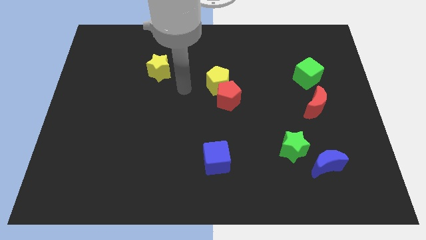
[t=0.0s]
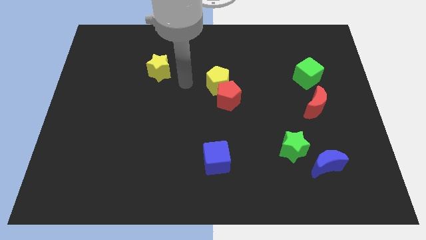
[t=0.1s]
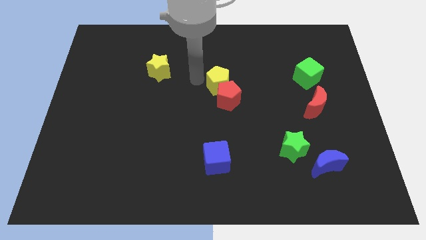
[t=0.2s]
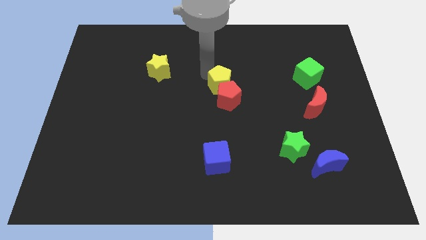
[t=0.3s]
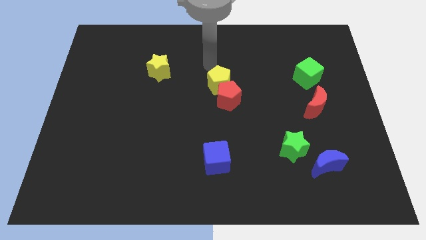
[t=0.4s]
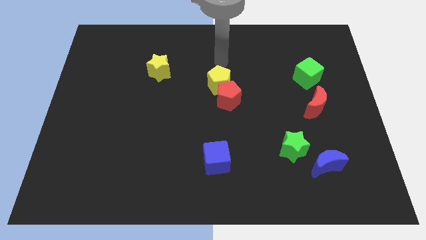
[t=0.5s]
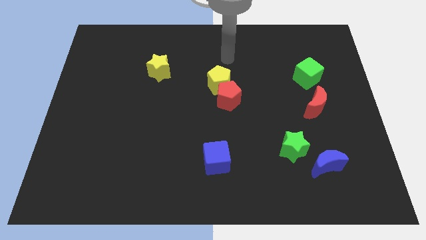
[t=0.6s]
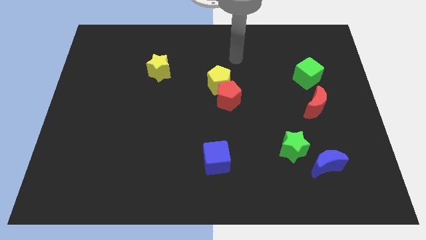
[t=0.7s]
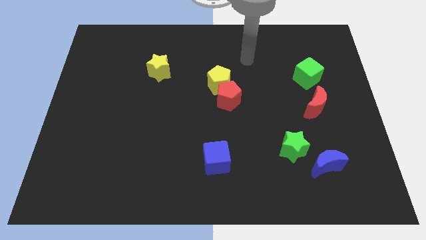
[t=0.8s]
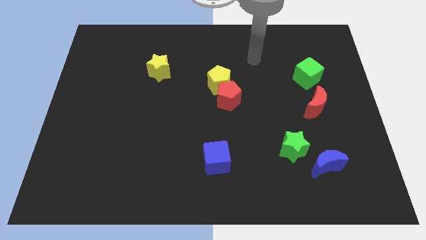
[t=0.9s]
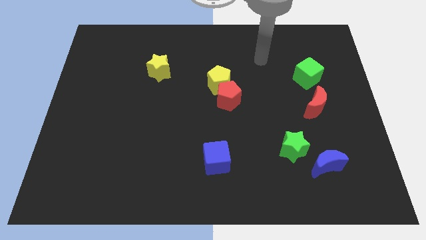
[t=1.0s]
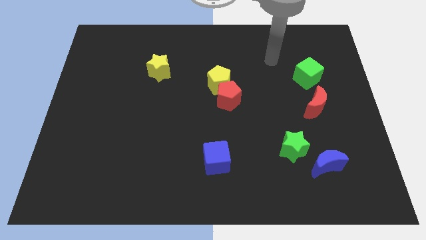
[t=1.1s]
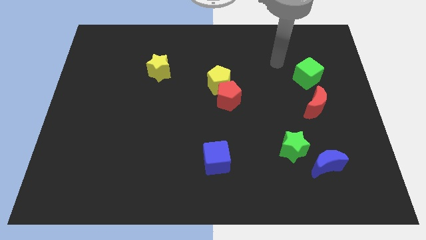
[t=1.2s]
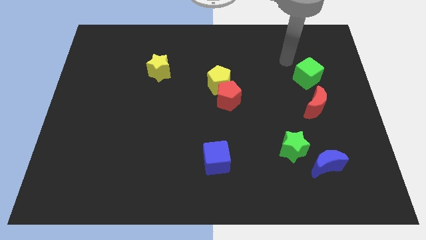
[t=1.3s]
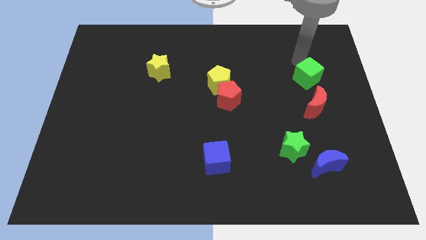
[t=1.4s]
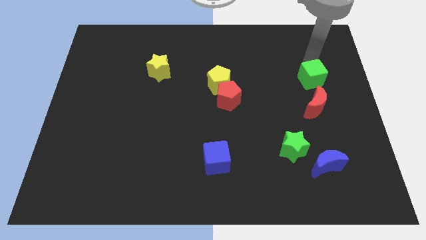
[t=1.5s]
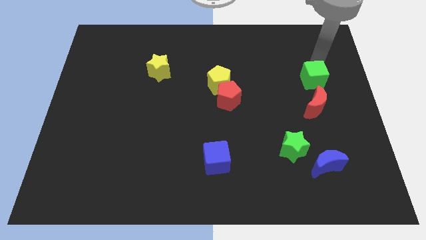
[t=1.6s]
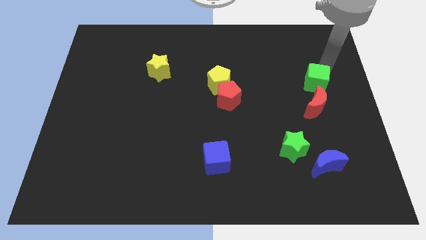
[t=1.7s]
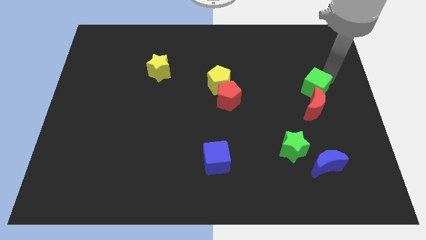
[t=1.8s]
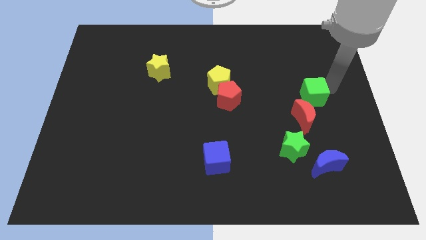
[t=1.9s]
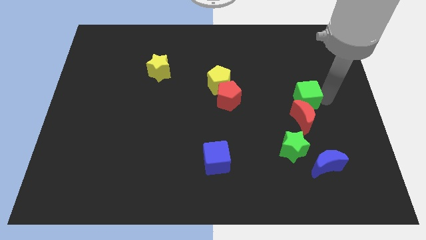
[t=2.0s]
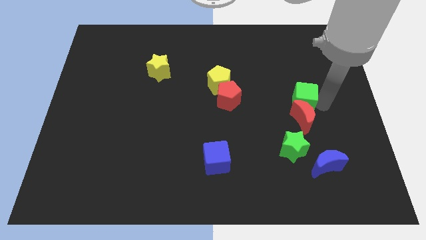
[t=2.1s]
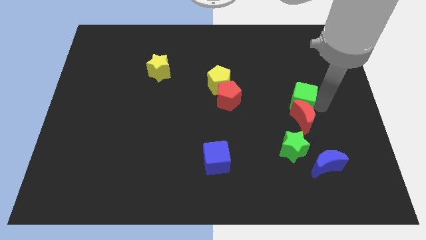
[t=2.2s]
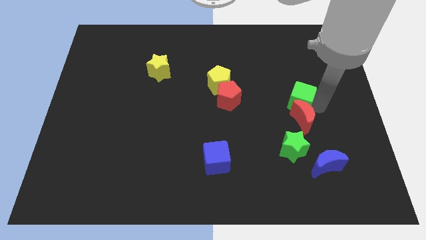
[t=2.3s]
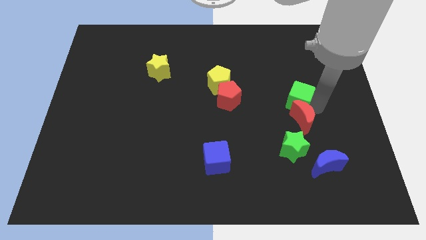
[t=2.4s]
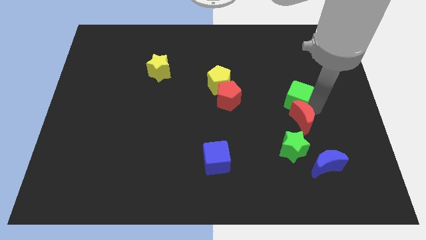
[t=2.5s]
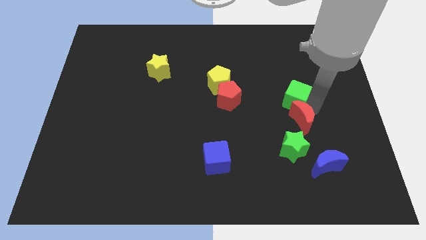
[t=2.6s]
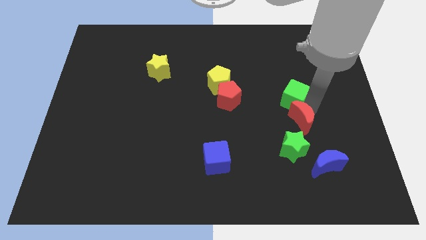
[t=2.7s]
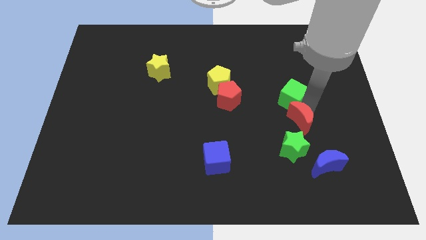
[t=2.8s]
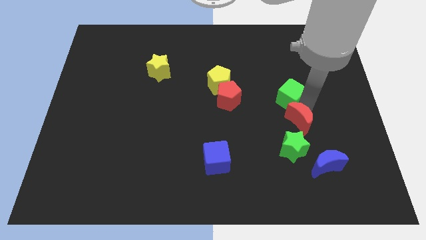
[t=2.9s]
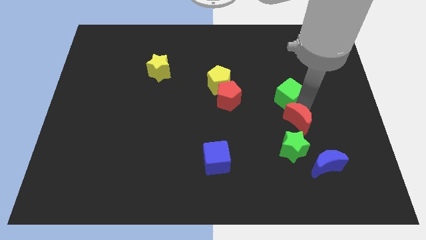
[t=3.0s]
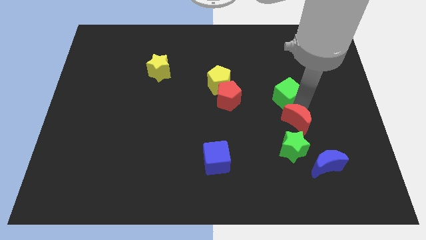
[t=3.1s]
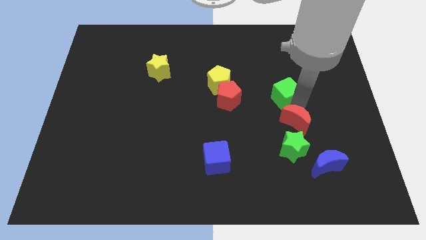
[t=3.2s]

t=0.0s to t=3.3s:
move the red moon diagonally downwards and left a little bit

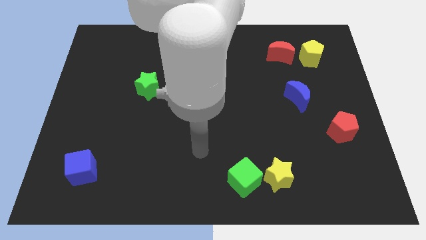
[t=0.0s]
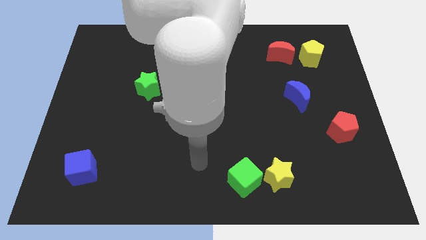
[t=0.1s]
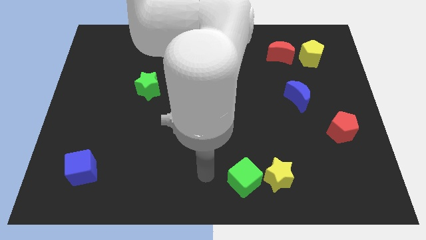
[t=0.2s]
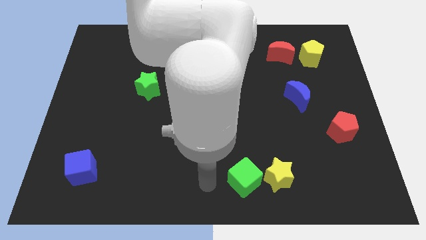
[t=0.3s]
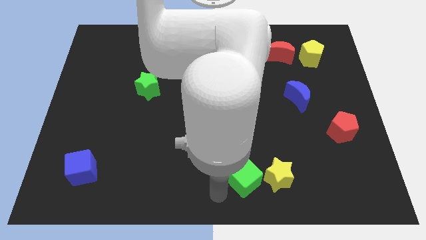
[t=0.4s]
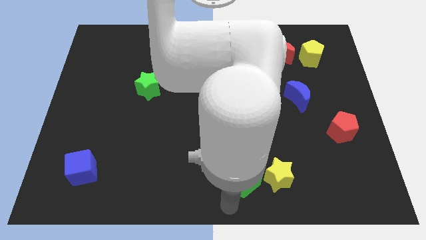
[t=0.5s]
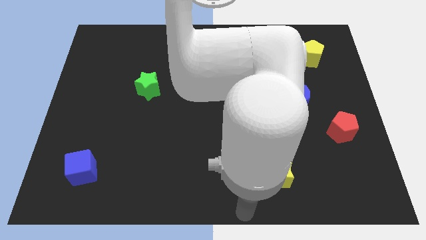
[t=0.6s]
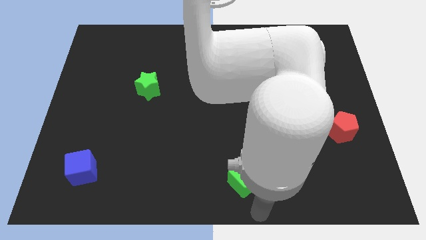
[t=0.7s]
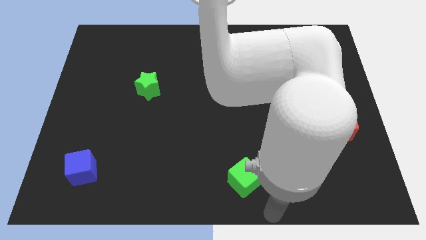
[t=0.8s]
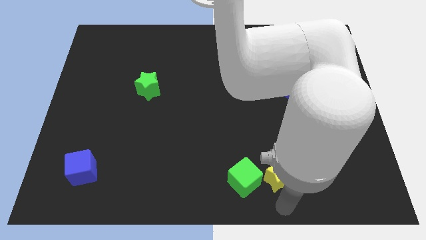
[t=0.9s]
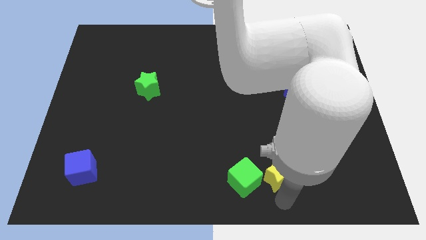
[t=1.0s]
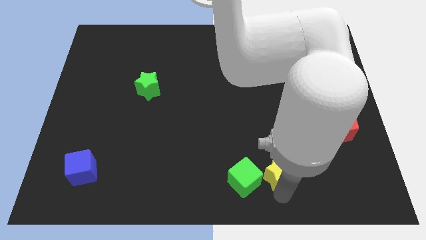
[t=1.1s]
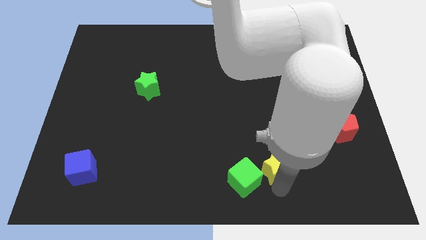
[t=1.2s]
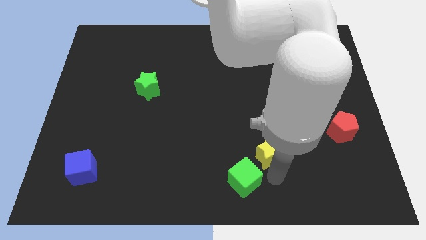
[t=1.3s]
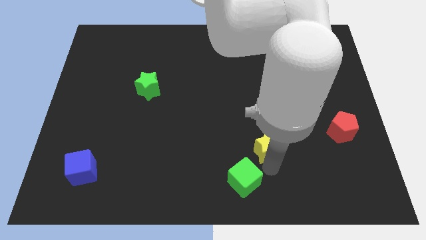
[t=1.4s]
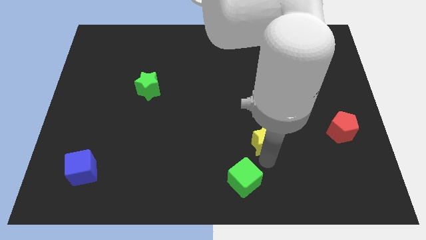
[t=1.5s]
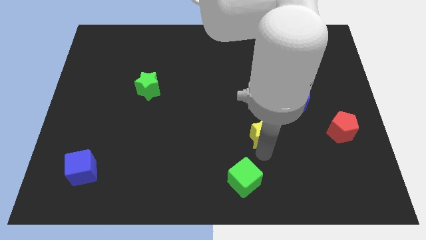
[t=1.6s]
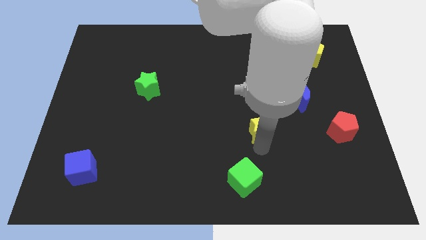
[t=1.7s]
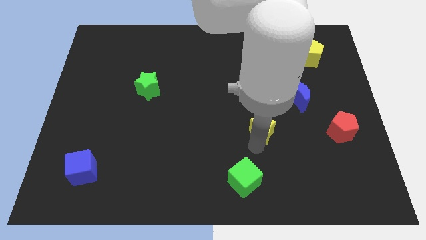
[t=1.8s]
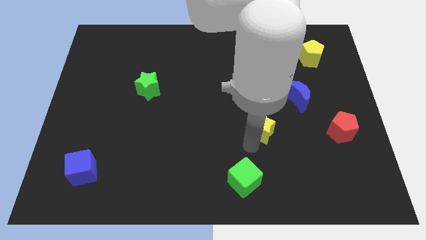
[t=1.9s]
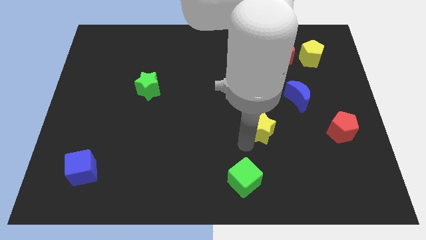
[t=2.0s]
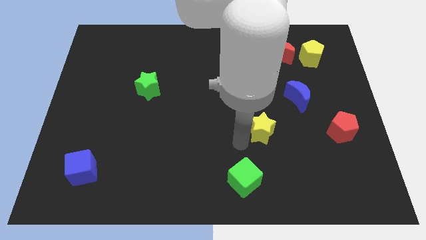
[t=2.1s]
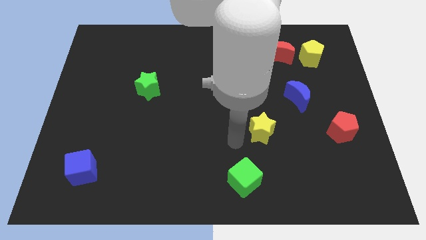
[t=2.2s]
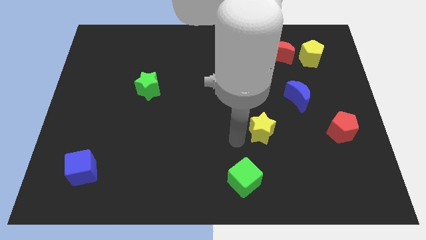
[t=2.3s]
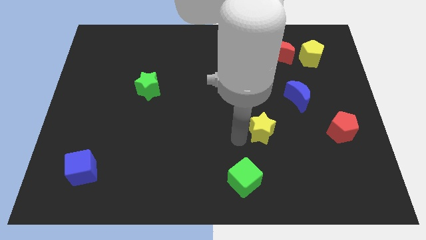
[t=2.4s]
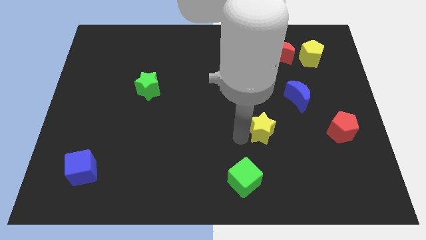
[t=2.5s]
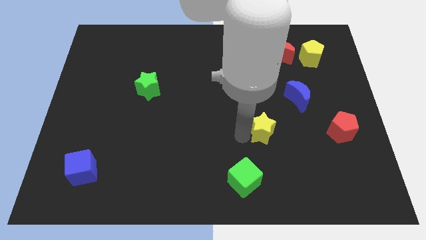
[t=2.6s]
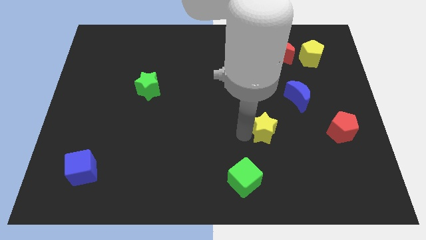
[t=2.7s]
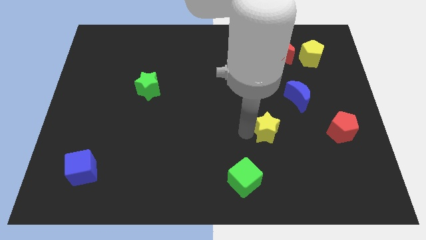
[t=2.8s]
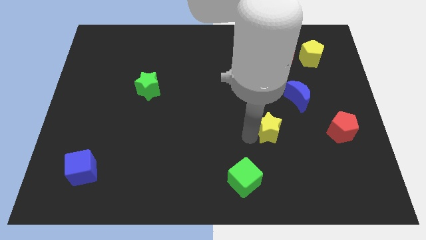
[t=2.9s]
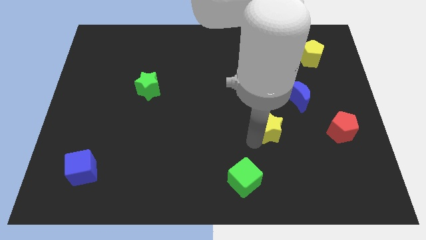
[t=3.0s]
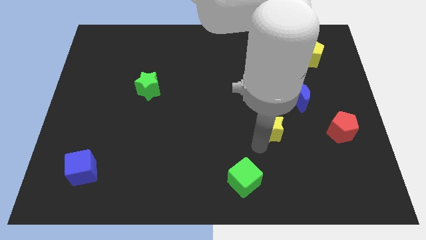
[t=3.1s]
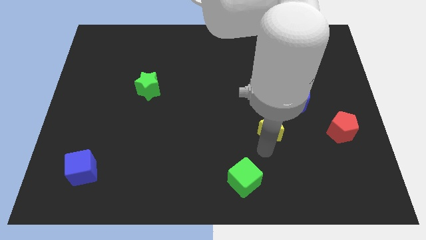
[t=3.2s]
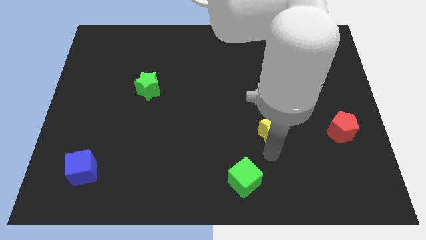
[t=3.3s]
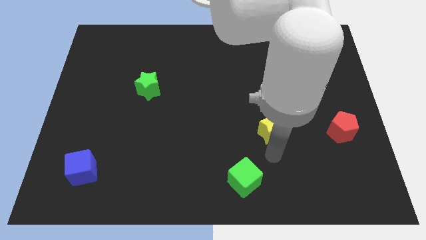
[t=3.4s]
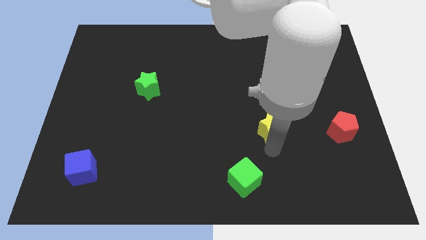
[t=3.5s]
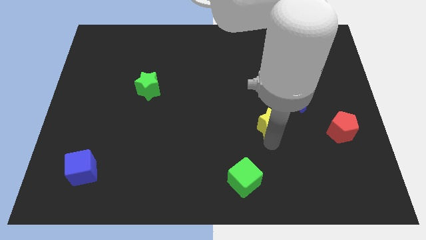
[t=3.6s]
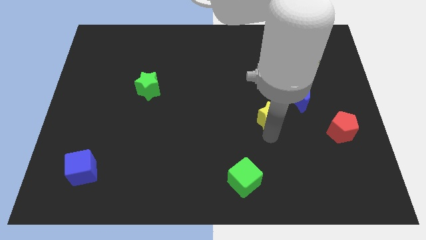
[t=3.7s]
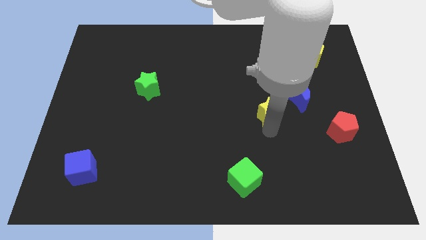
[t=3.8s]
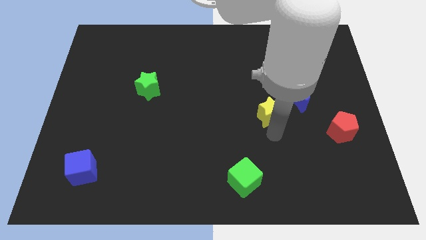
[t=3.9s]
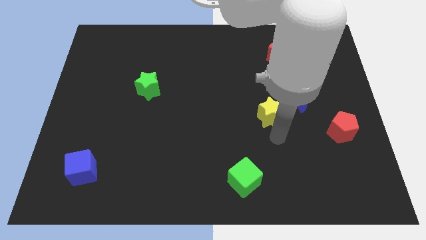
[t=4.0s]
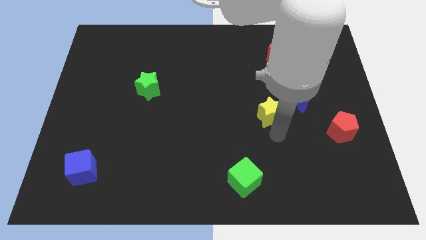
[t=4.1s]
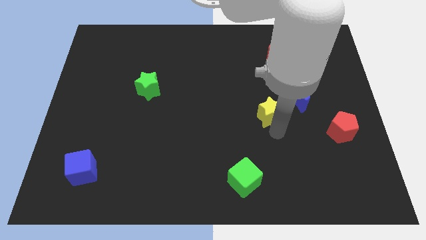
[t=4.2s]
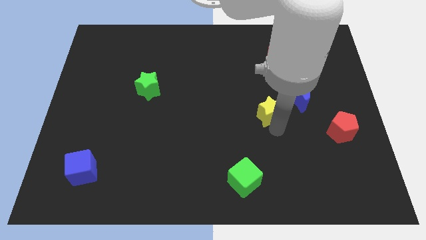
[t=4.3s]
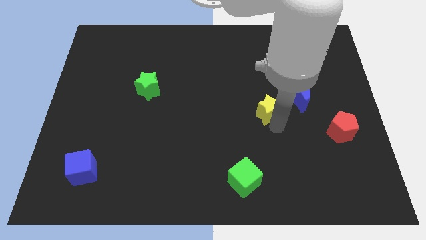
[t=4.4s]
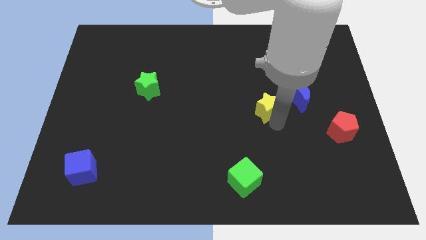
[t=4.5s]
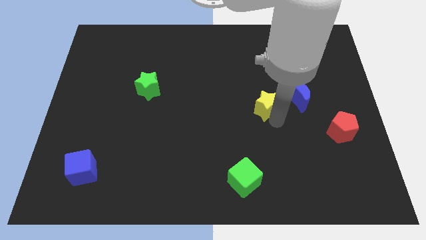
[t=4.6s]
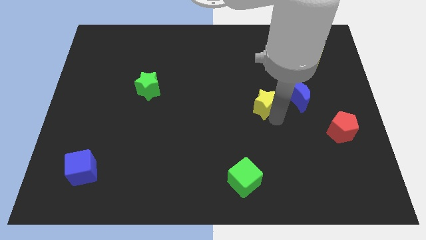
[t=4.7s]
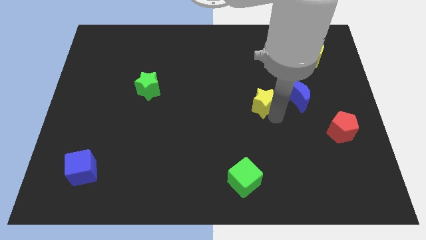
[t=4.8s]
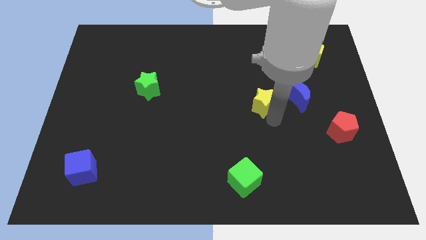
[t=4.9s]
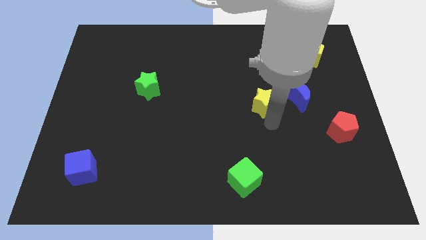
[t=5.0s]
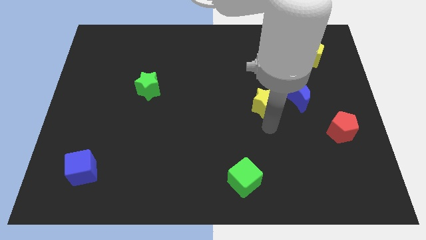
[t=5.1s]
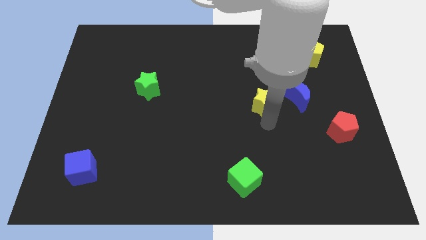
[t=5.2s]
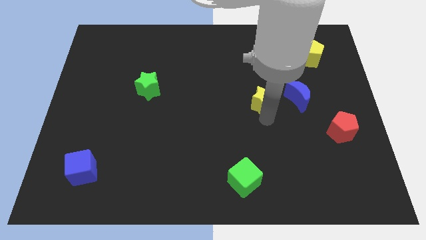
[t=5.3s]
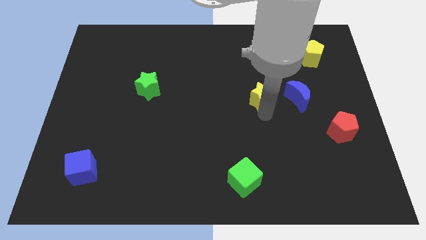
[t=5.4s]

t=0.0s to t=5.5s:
move the yellow star upwards
